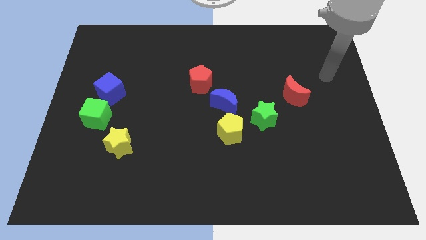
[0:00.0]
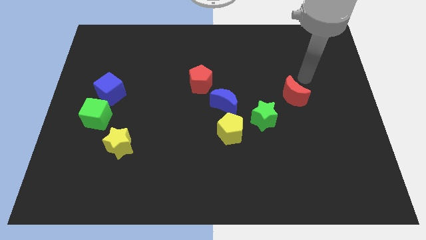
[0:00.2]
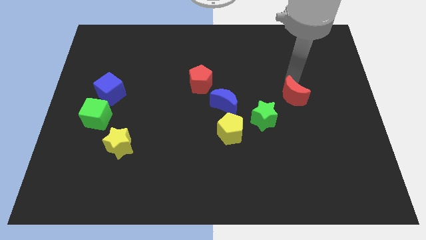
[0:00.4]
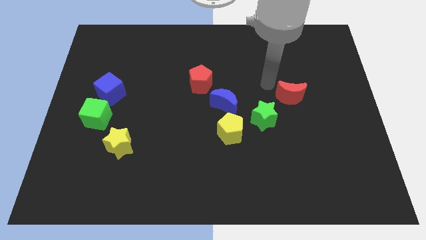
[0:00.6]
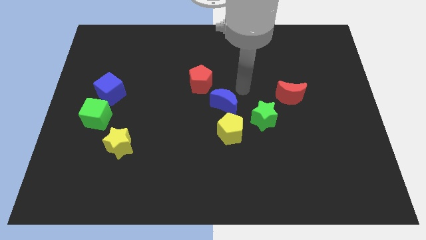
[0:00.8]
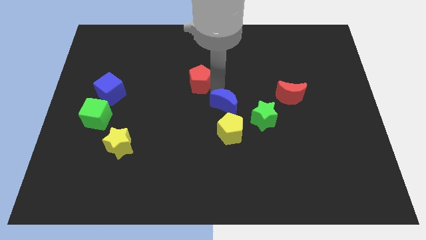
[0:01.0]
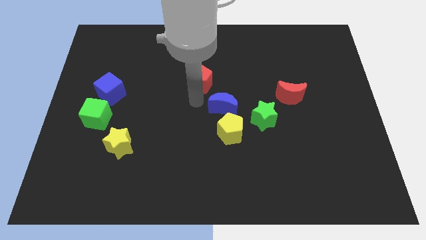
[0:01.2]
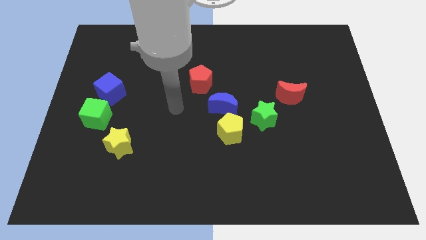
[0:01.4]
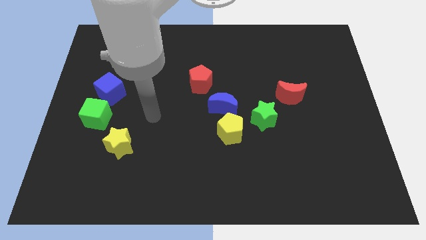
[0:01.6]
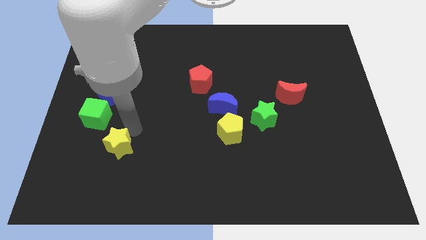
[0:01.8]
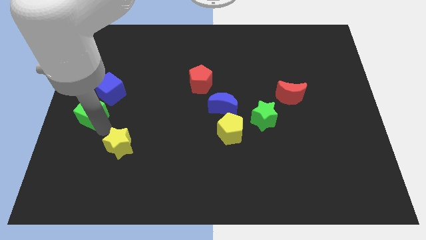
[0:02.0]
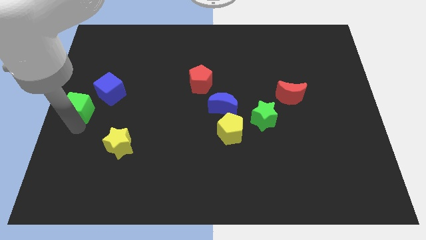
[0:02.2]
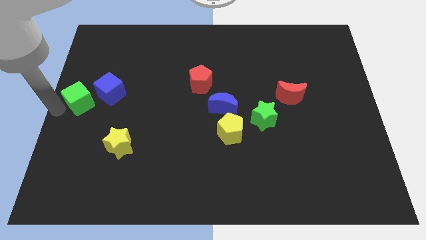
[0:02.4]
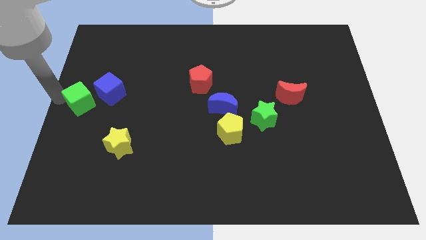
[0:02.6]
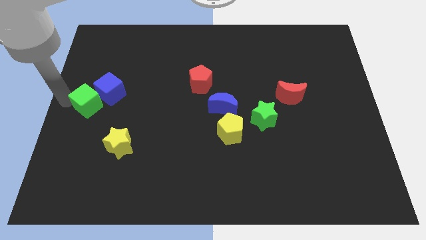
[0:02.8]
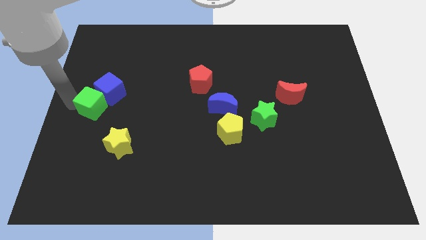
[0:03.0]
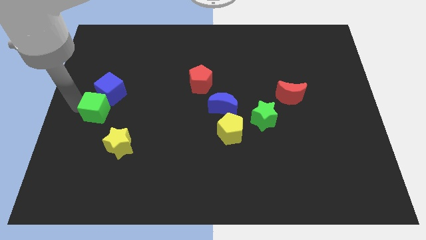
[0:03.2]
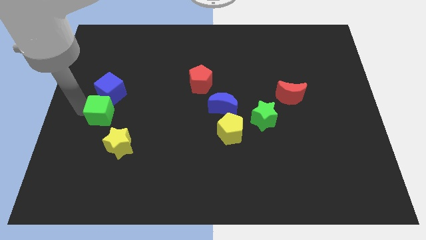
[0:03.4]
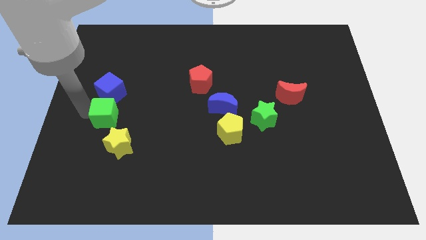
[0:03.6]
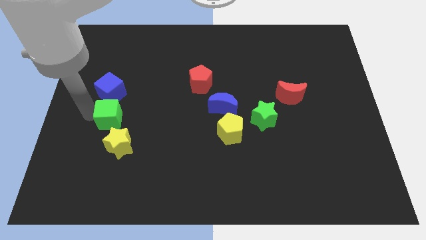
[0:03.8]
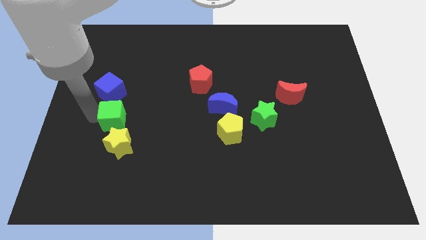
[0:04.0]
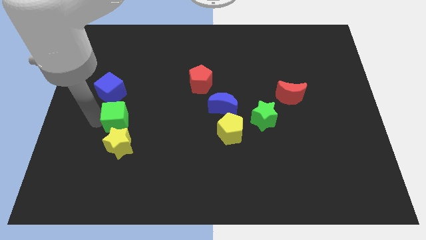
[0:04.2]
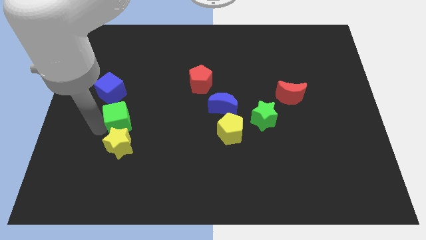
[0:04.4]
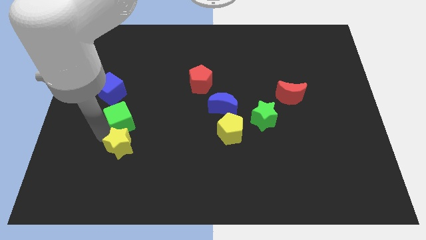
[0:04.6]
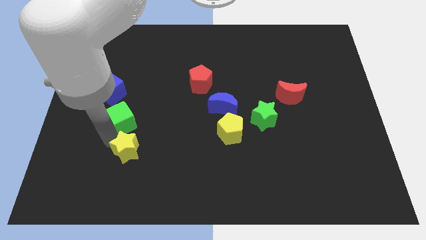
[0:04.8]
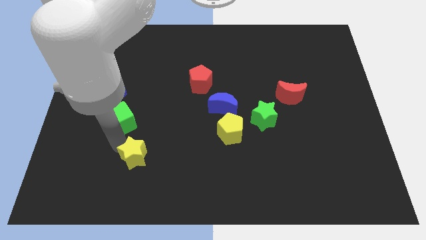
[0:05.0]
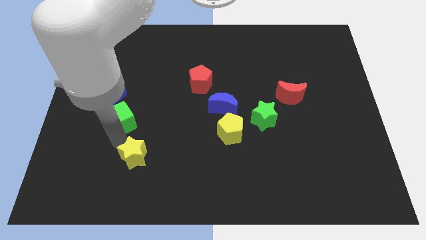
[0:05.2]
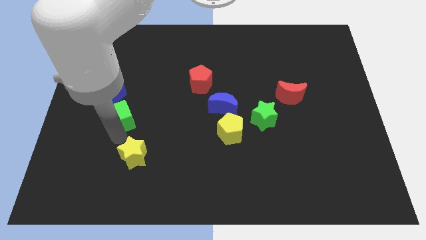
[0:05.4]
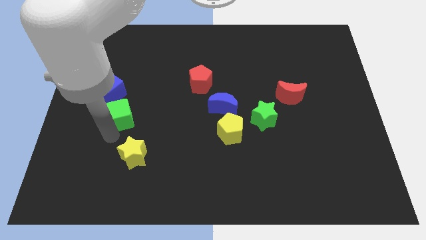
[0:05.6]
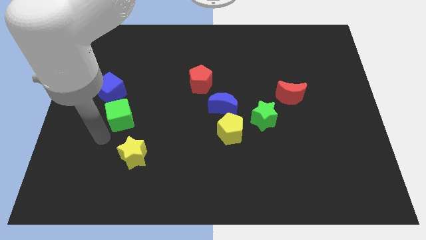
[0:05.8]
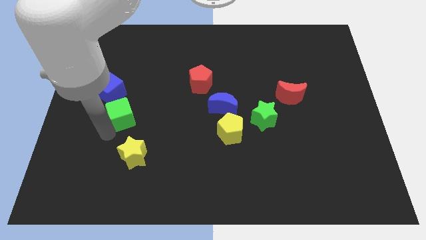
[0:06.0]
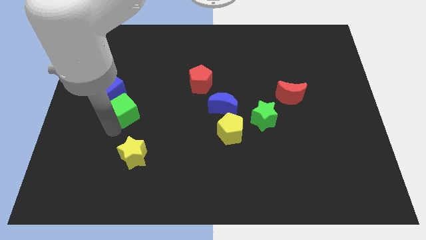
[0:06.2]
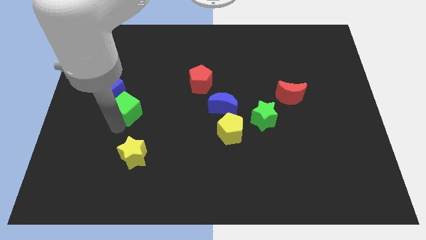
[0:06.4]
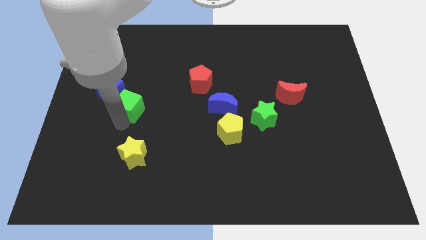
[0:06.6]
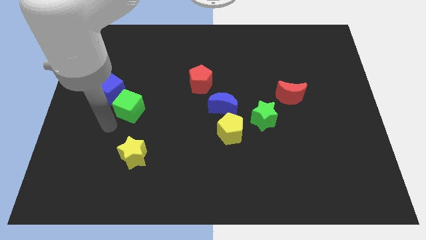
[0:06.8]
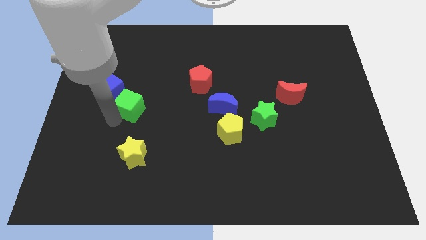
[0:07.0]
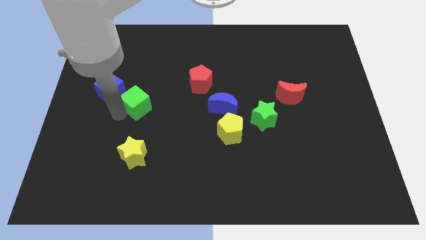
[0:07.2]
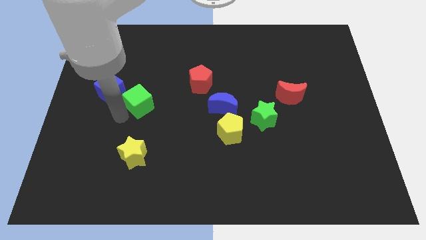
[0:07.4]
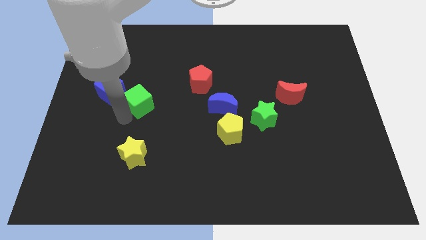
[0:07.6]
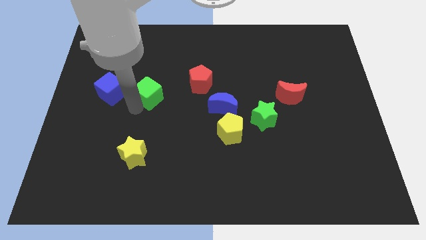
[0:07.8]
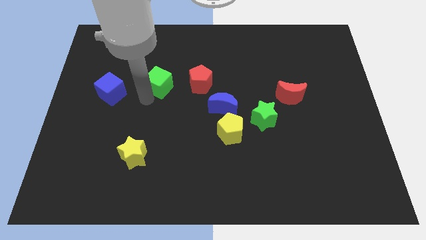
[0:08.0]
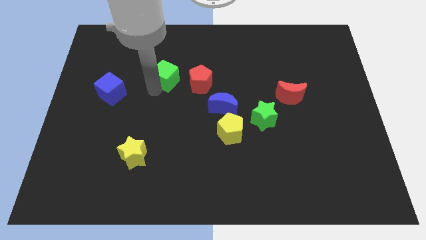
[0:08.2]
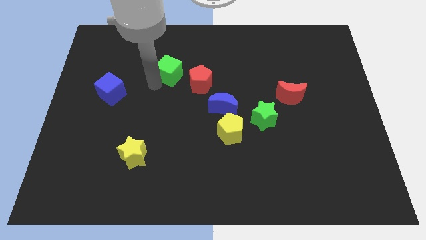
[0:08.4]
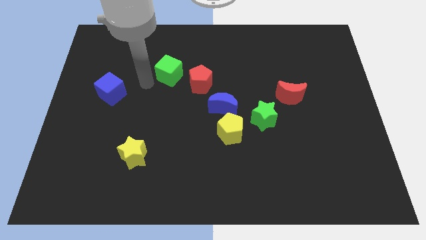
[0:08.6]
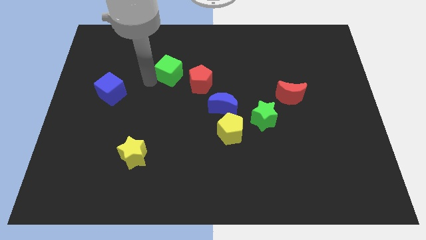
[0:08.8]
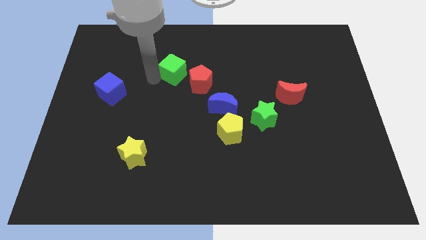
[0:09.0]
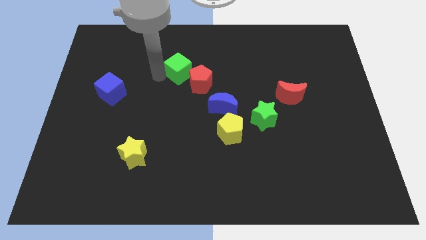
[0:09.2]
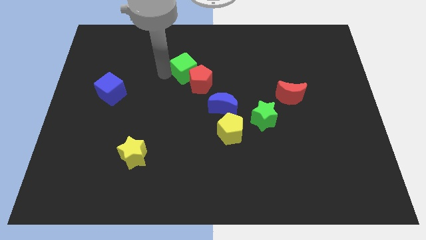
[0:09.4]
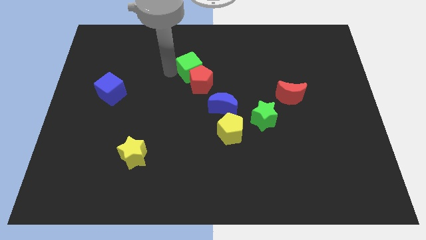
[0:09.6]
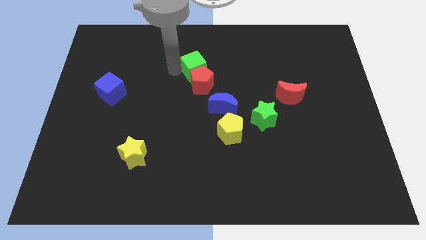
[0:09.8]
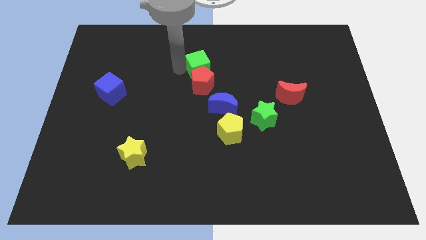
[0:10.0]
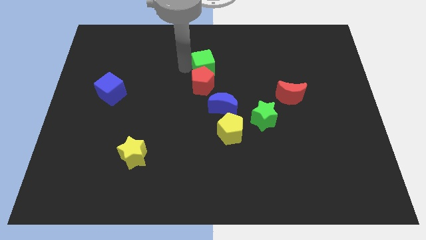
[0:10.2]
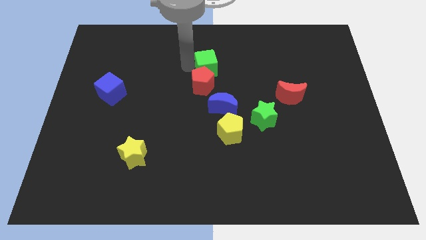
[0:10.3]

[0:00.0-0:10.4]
put the green cube to the top side of the blue moon

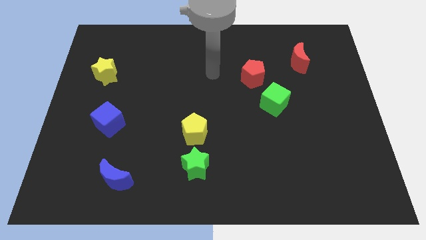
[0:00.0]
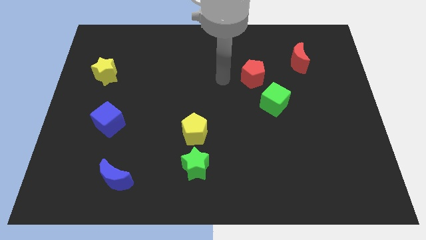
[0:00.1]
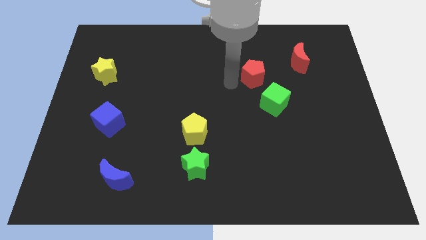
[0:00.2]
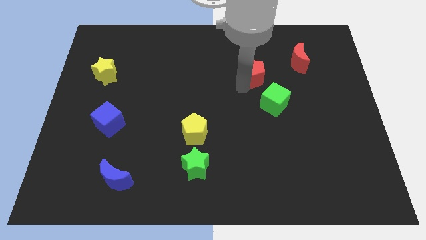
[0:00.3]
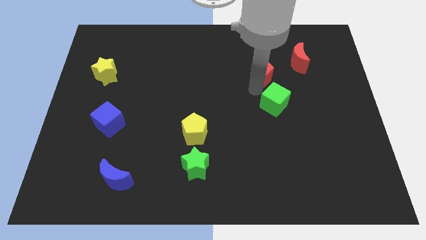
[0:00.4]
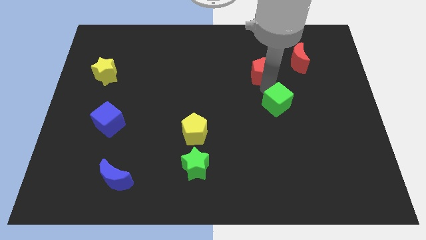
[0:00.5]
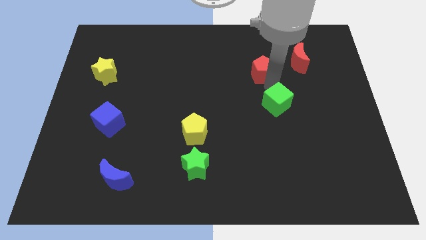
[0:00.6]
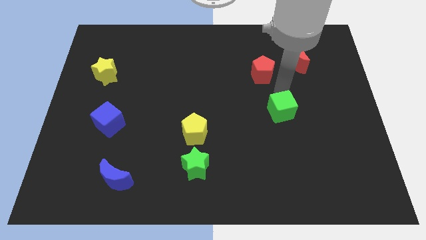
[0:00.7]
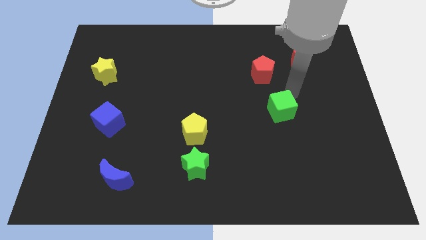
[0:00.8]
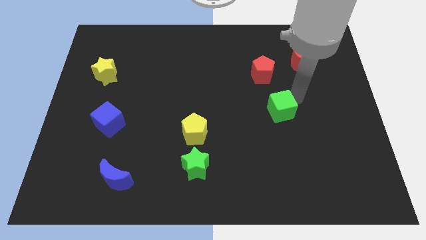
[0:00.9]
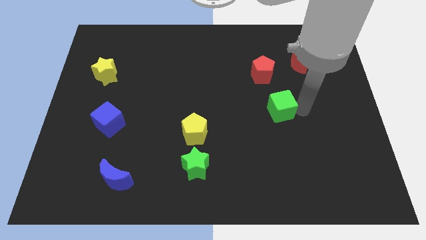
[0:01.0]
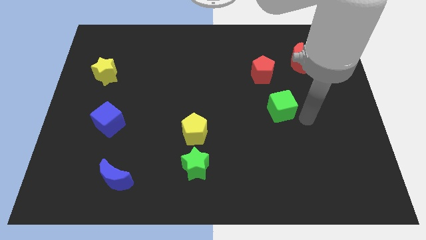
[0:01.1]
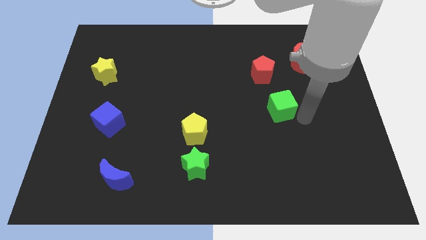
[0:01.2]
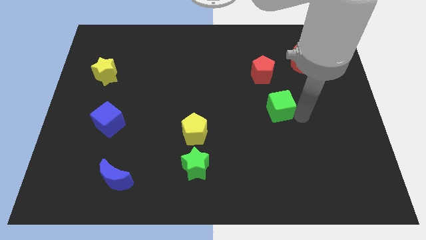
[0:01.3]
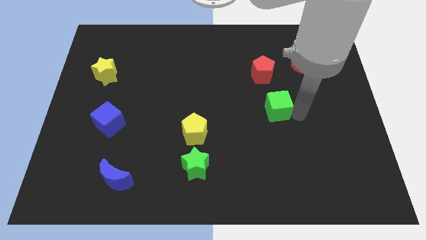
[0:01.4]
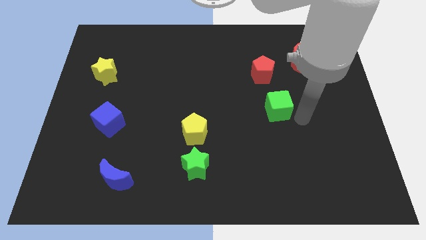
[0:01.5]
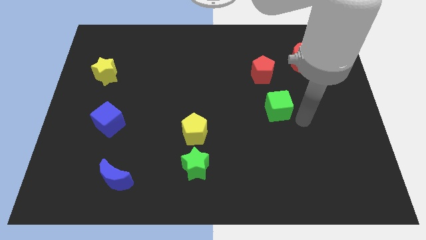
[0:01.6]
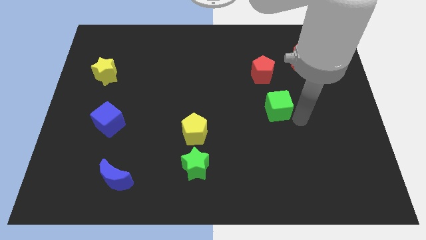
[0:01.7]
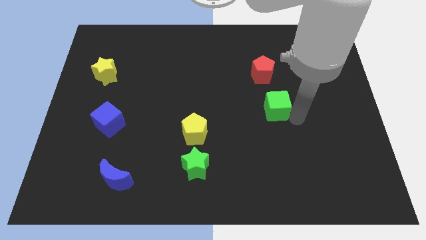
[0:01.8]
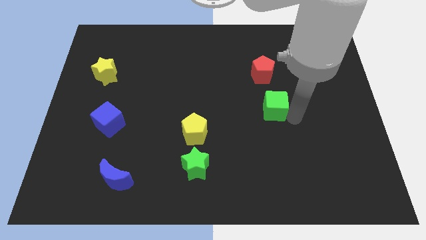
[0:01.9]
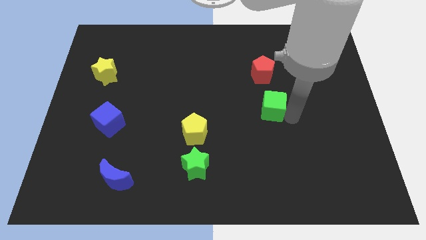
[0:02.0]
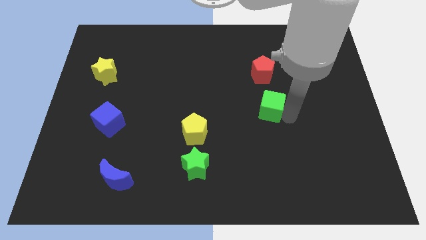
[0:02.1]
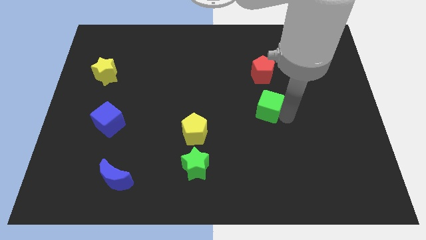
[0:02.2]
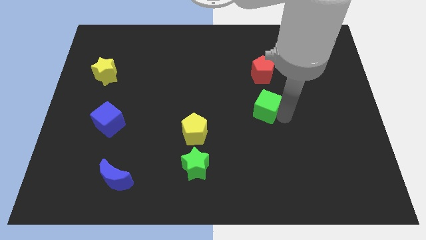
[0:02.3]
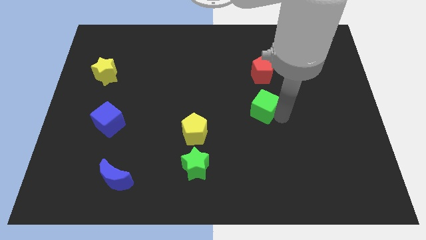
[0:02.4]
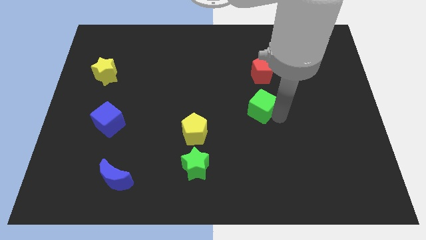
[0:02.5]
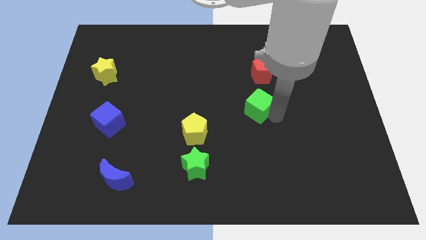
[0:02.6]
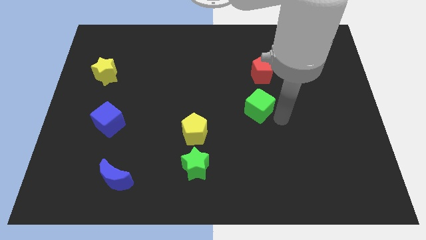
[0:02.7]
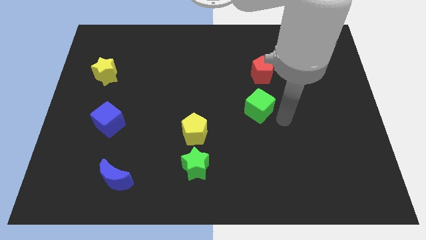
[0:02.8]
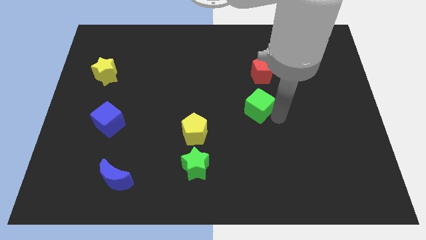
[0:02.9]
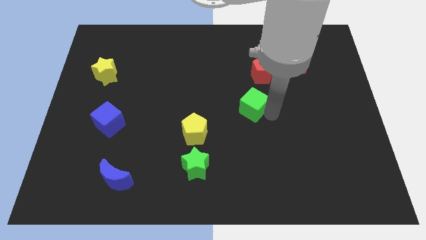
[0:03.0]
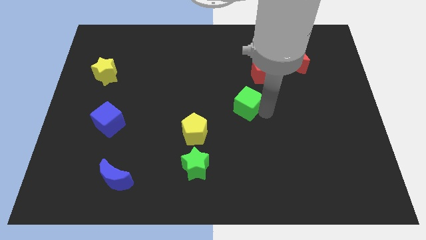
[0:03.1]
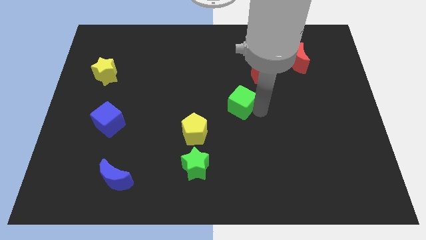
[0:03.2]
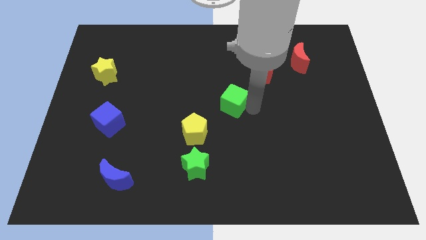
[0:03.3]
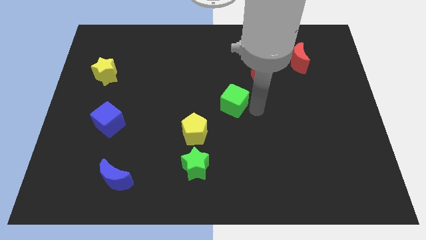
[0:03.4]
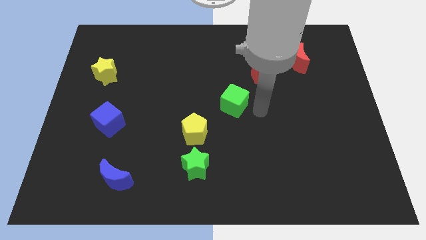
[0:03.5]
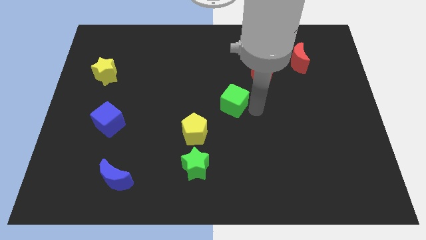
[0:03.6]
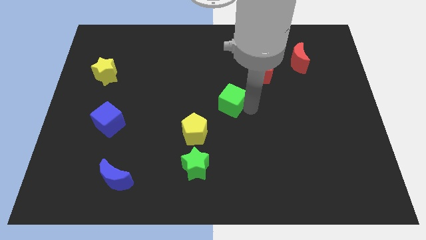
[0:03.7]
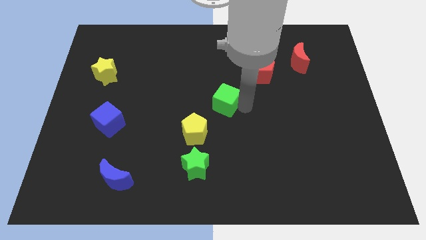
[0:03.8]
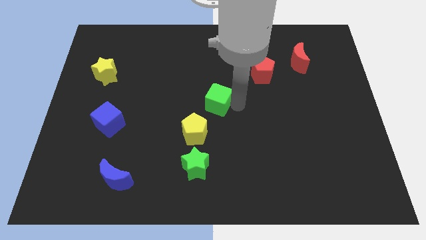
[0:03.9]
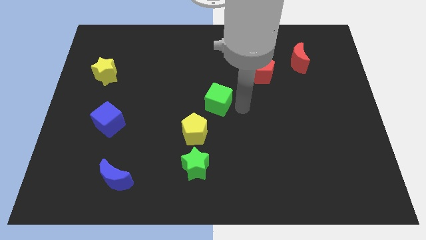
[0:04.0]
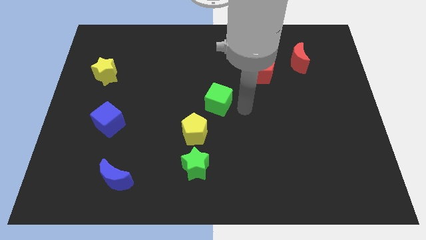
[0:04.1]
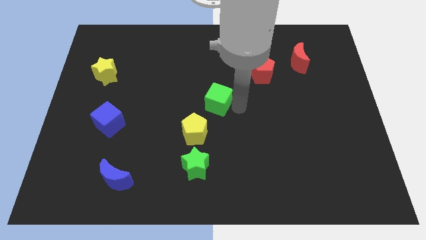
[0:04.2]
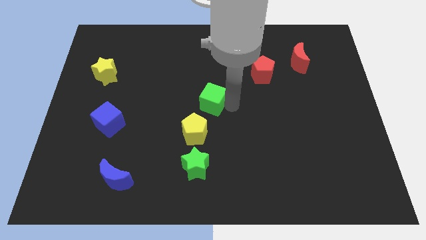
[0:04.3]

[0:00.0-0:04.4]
put the green cube to the top of the yellow pentagon
